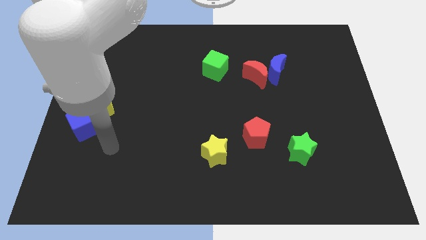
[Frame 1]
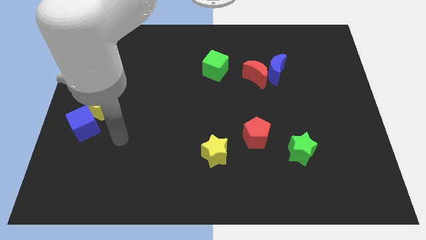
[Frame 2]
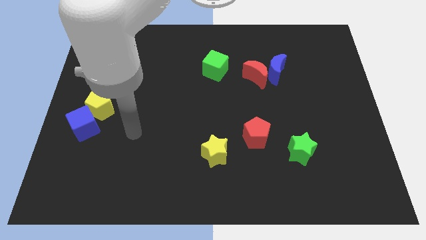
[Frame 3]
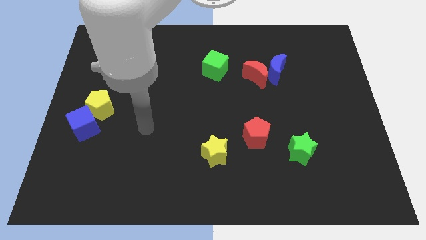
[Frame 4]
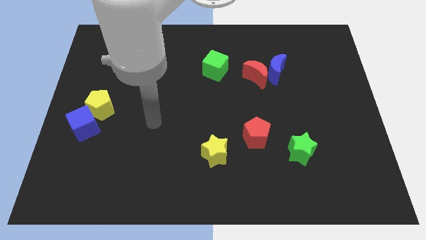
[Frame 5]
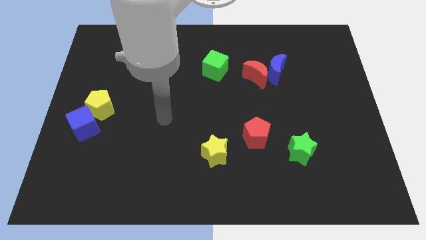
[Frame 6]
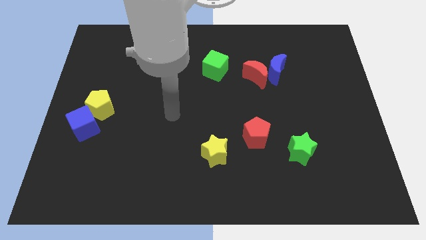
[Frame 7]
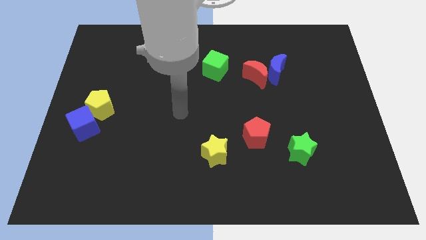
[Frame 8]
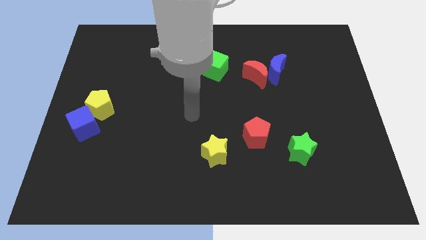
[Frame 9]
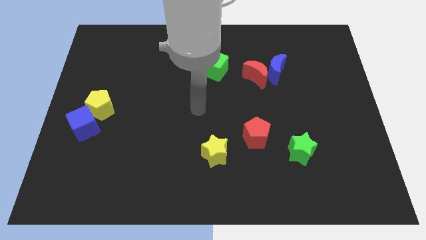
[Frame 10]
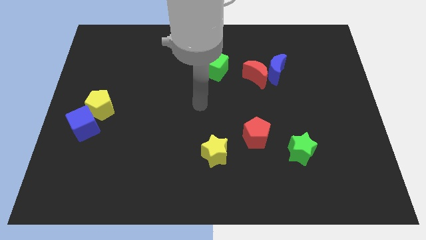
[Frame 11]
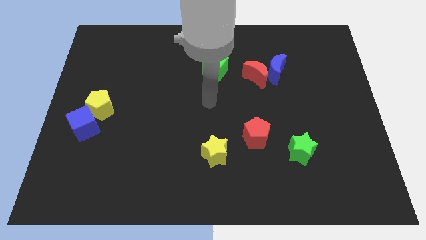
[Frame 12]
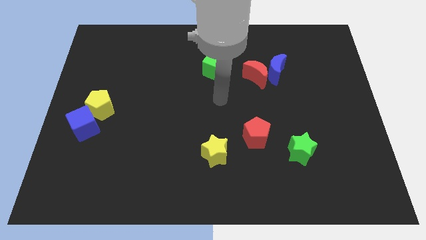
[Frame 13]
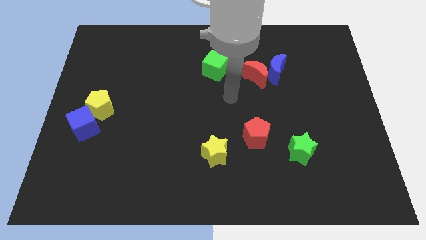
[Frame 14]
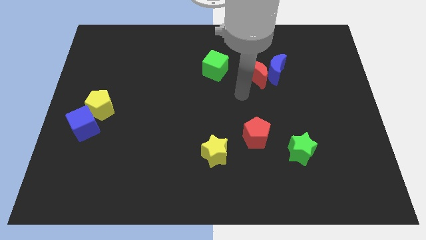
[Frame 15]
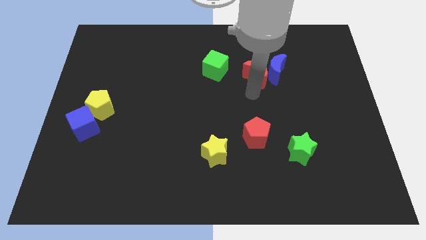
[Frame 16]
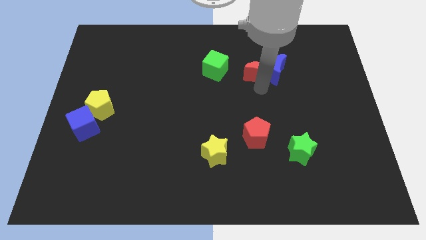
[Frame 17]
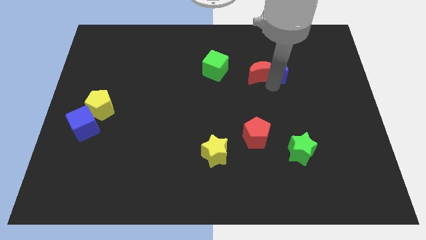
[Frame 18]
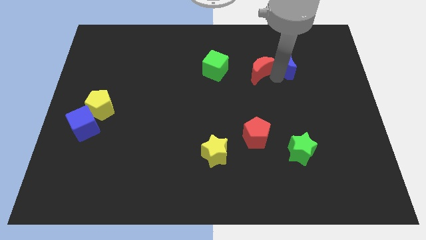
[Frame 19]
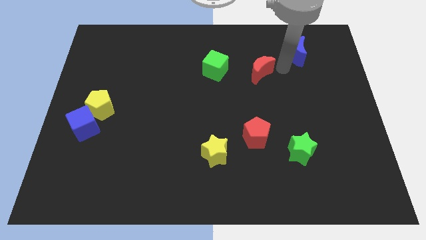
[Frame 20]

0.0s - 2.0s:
separate the red moon from the blue moon

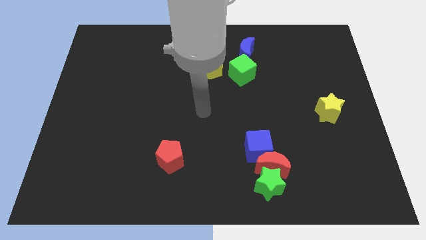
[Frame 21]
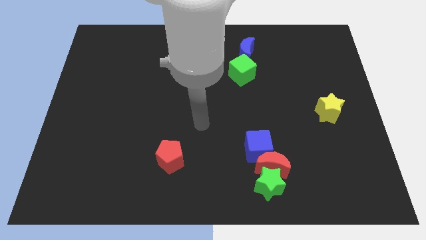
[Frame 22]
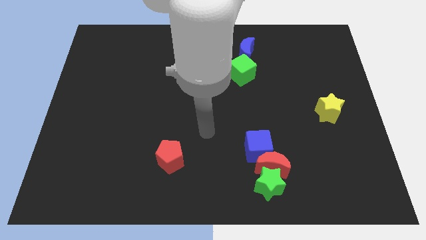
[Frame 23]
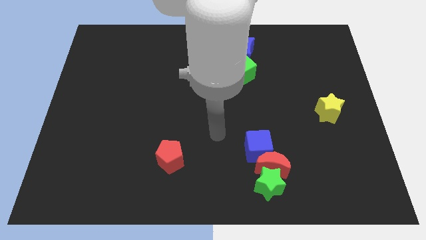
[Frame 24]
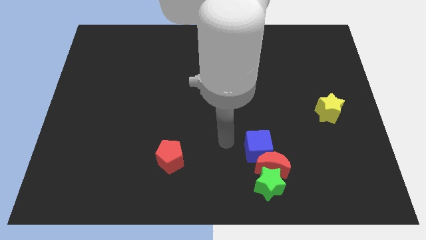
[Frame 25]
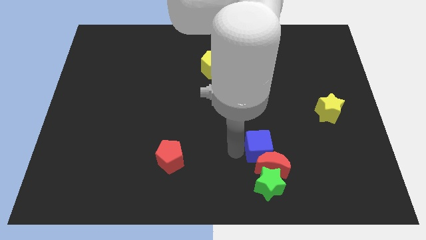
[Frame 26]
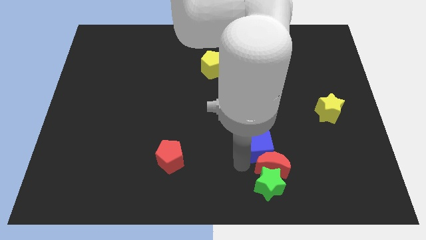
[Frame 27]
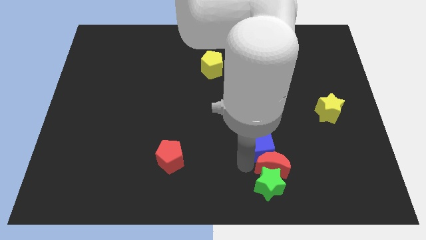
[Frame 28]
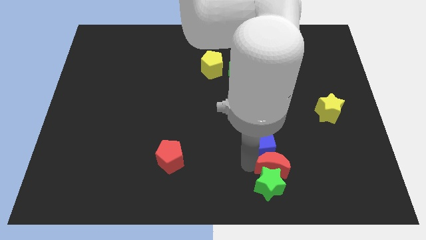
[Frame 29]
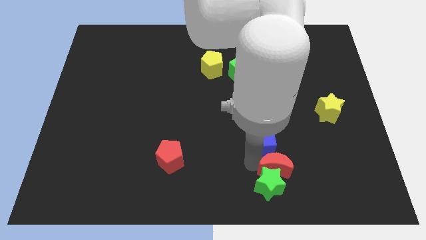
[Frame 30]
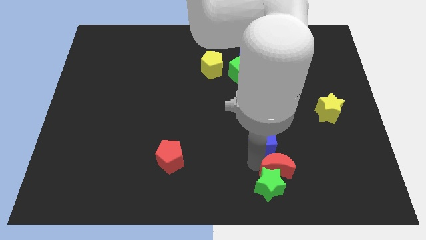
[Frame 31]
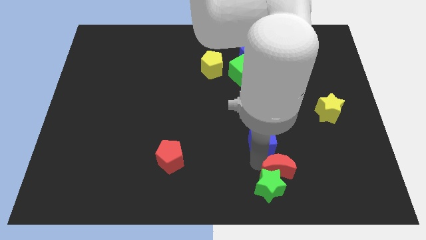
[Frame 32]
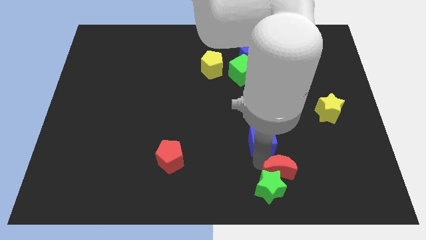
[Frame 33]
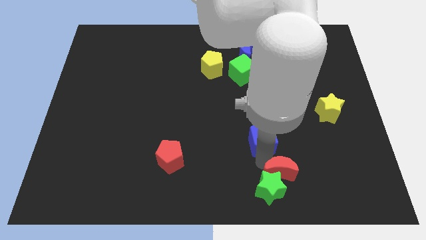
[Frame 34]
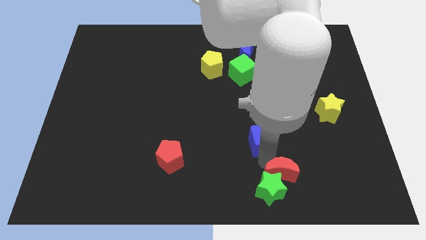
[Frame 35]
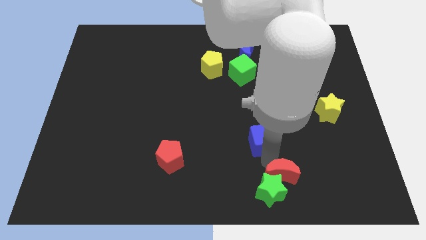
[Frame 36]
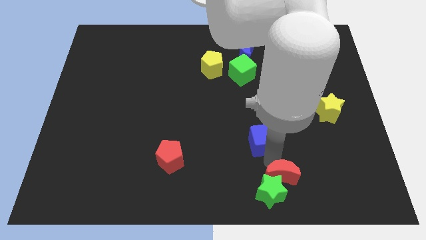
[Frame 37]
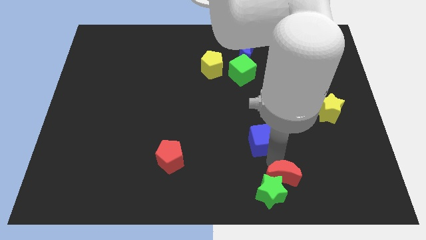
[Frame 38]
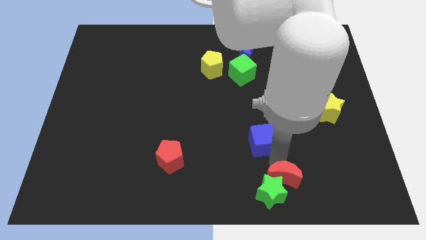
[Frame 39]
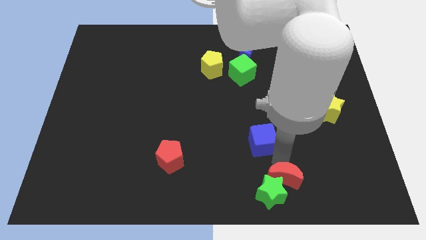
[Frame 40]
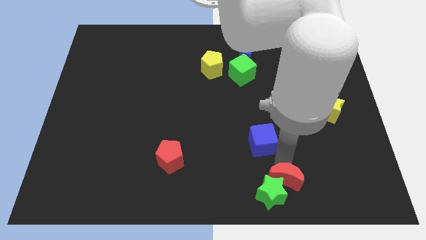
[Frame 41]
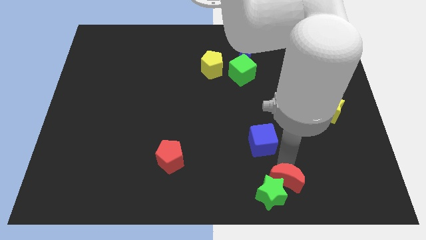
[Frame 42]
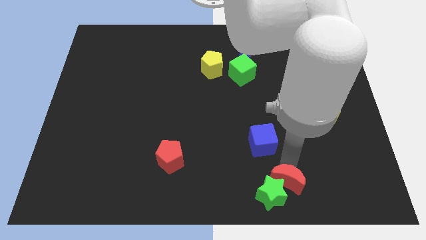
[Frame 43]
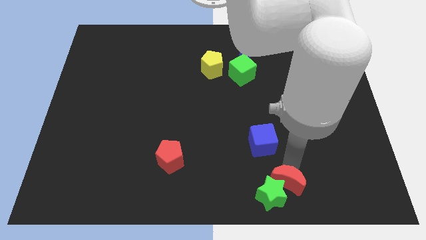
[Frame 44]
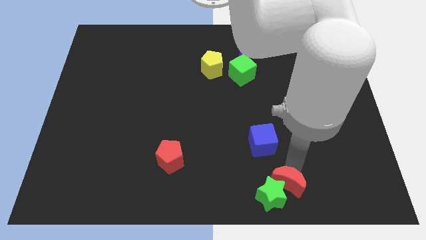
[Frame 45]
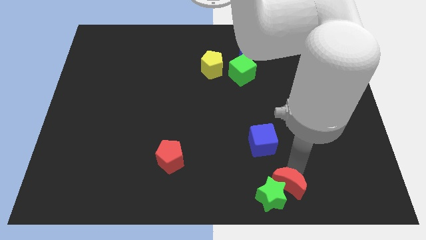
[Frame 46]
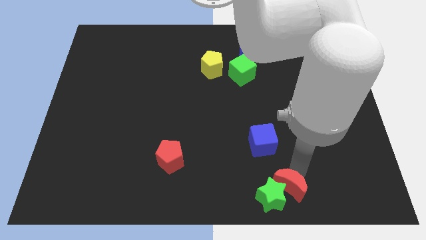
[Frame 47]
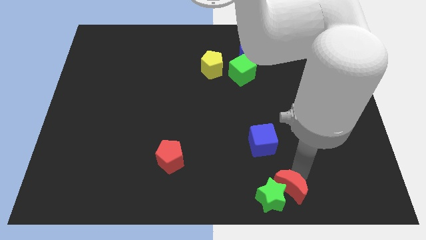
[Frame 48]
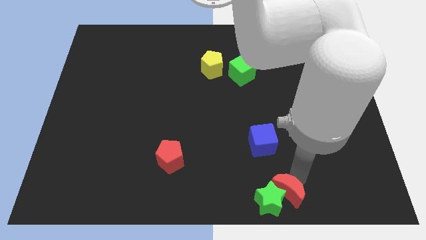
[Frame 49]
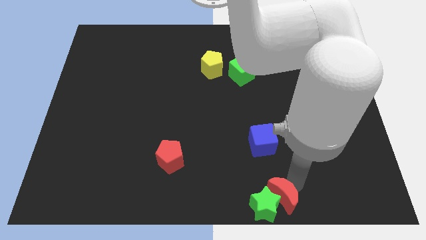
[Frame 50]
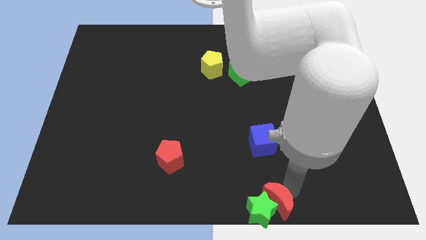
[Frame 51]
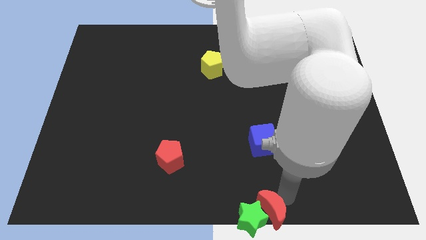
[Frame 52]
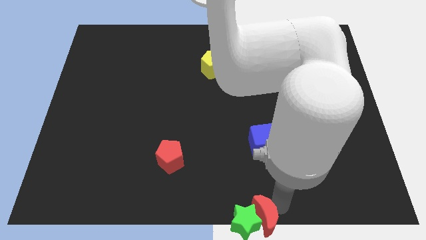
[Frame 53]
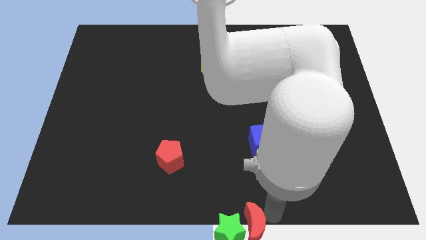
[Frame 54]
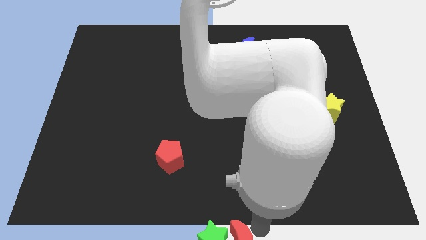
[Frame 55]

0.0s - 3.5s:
pull the red moon apart from the green star and blue cube

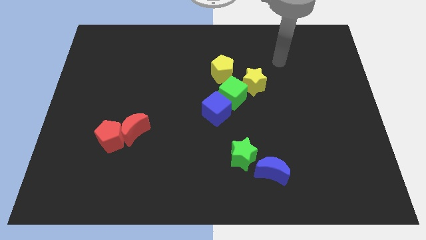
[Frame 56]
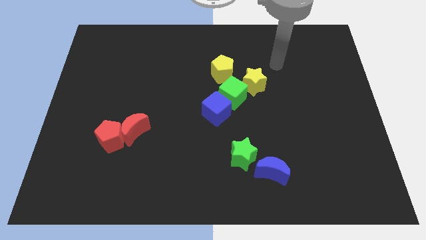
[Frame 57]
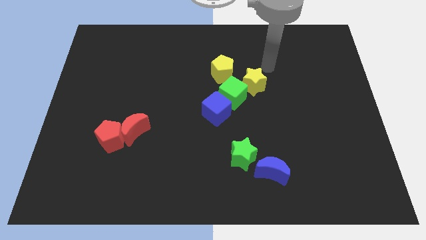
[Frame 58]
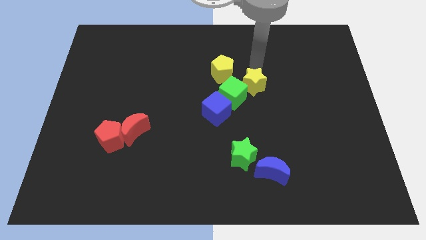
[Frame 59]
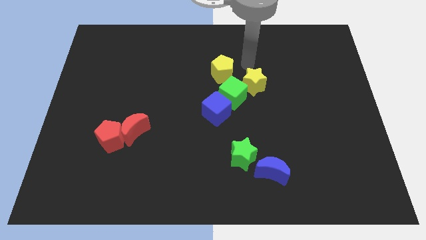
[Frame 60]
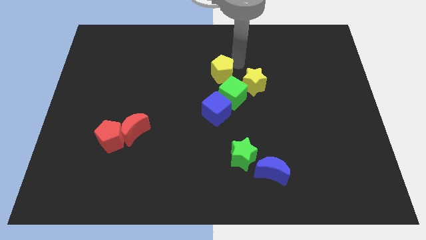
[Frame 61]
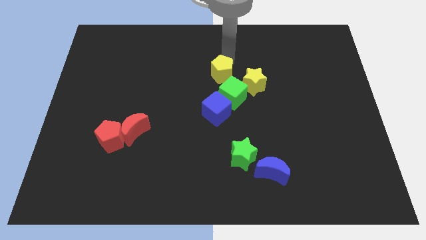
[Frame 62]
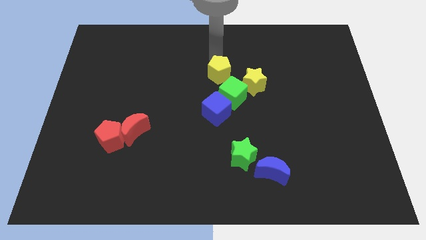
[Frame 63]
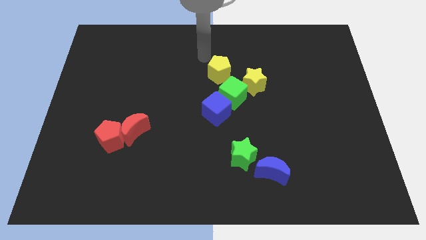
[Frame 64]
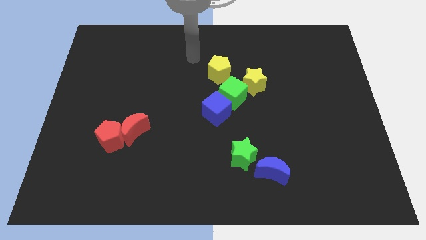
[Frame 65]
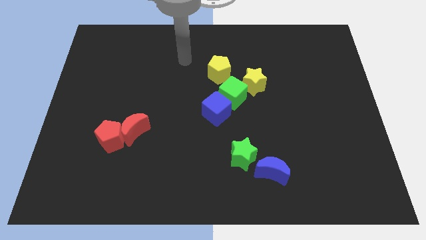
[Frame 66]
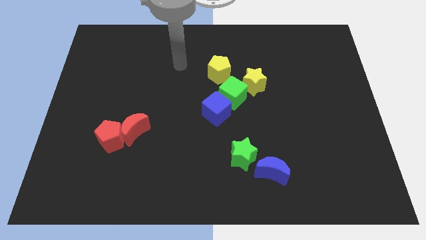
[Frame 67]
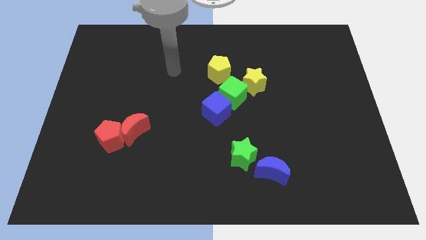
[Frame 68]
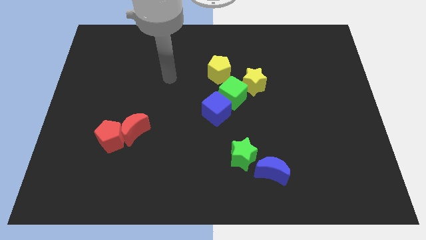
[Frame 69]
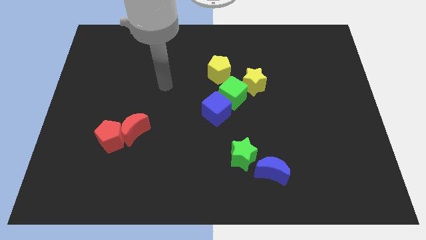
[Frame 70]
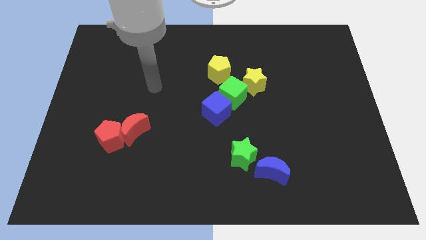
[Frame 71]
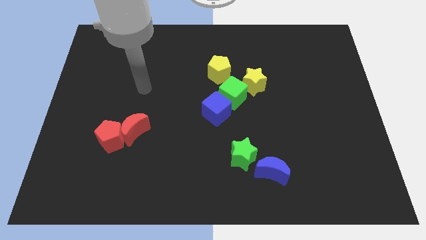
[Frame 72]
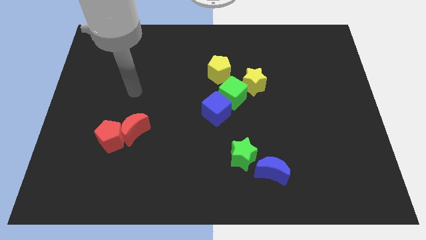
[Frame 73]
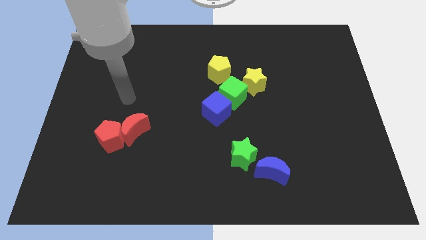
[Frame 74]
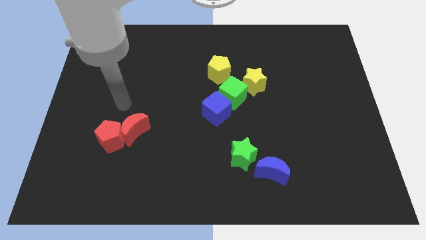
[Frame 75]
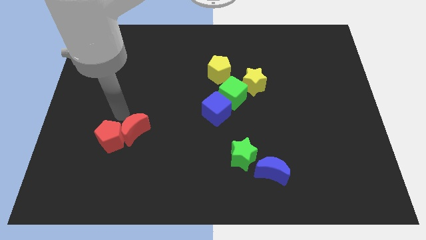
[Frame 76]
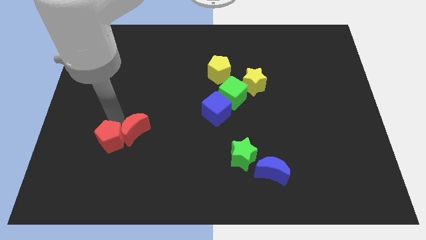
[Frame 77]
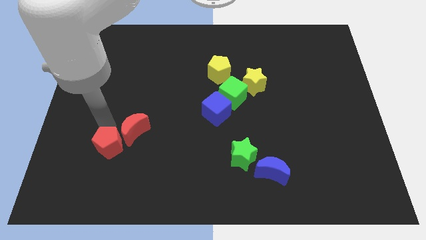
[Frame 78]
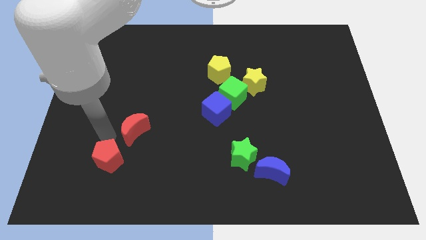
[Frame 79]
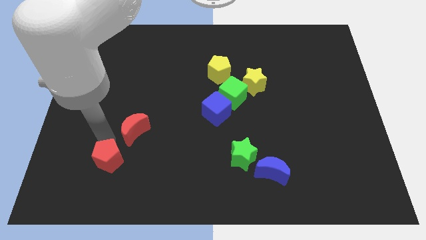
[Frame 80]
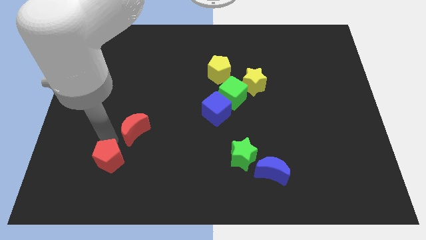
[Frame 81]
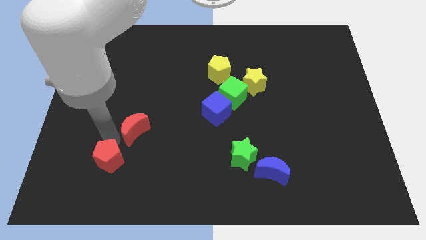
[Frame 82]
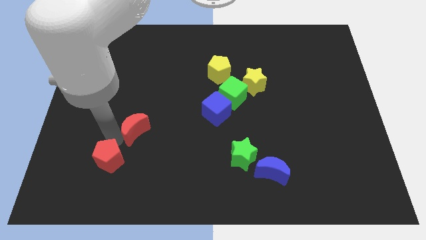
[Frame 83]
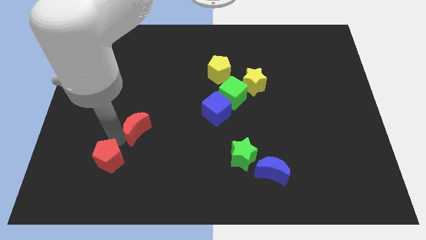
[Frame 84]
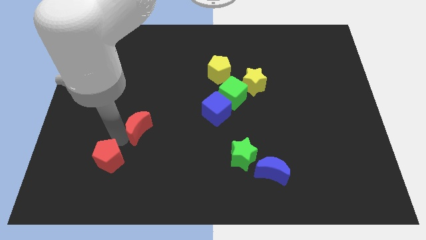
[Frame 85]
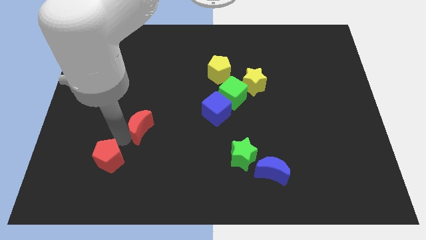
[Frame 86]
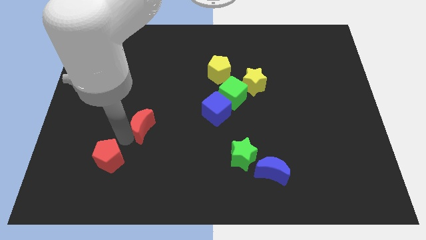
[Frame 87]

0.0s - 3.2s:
pull the red moon apart from the red pentagon

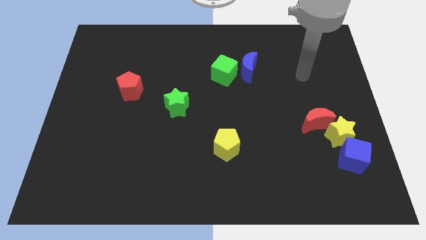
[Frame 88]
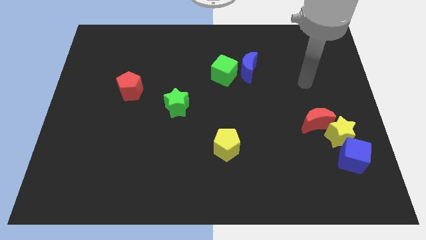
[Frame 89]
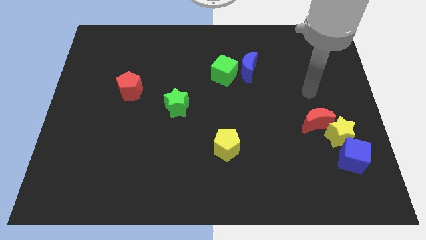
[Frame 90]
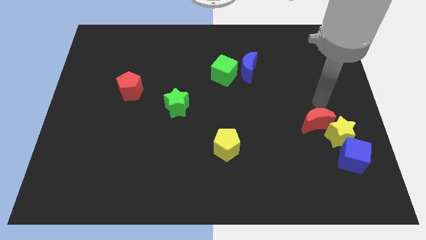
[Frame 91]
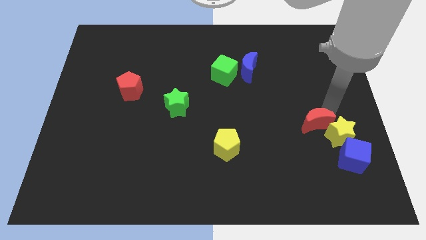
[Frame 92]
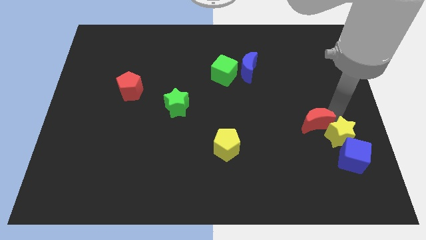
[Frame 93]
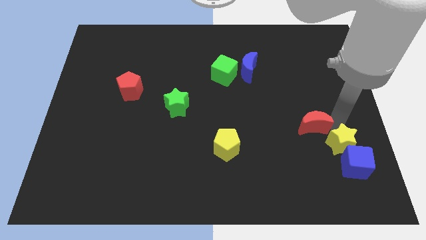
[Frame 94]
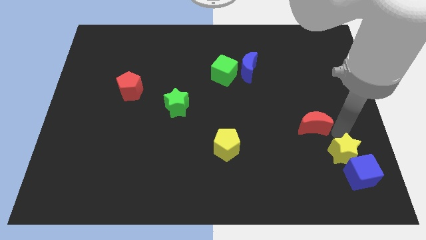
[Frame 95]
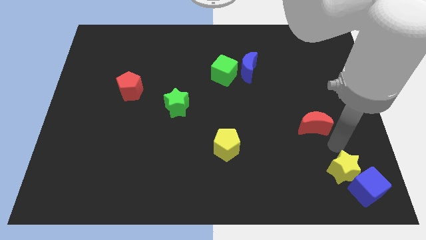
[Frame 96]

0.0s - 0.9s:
pull the red moon apart from the yellow star
